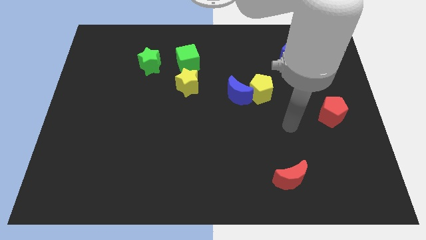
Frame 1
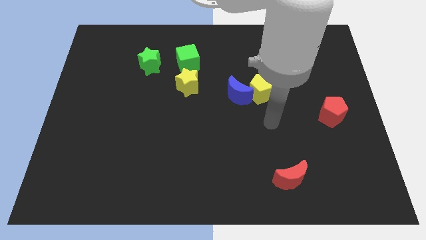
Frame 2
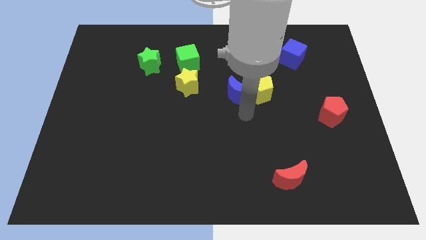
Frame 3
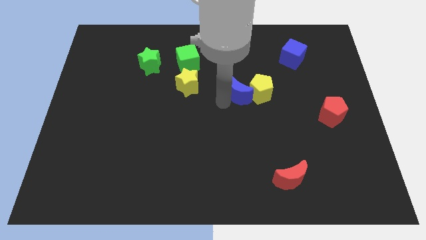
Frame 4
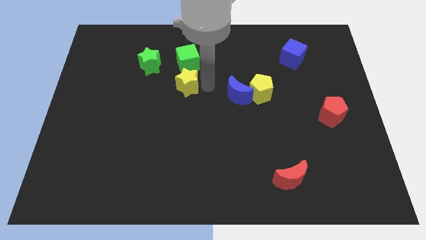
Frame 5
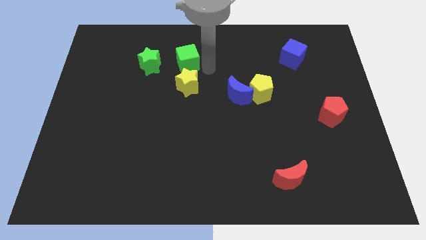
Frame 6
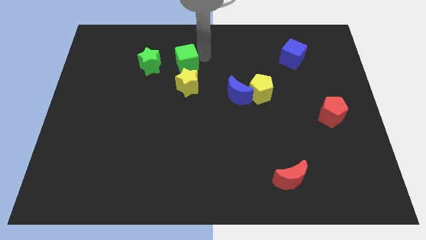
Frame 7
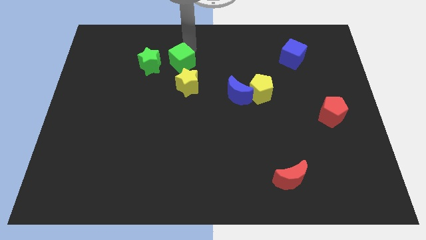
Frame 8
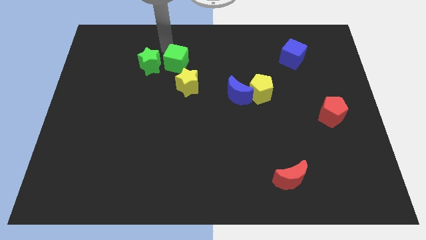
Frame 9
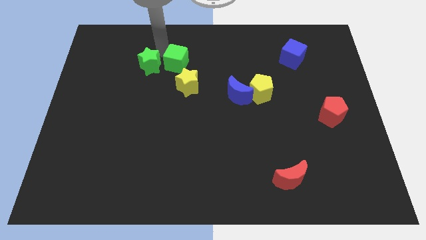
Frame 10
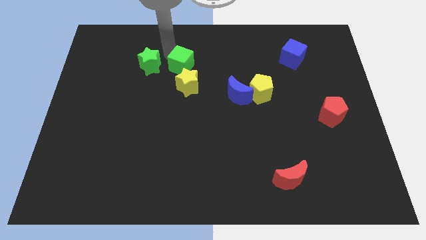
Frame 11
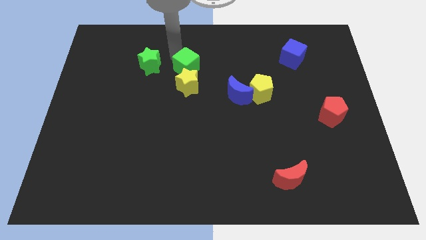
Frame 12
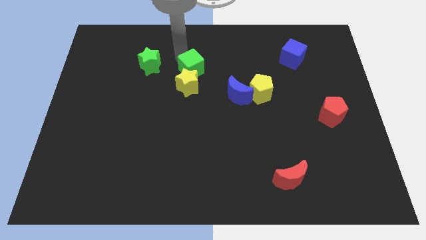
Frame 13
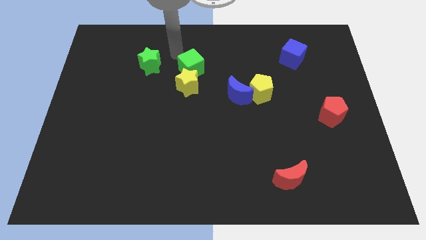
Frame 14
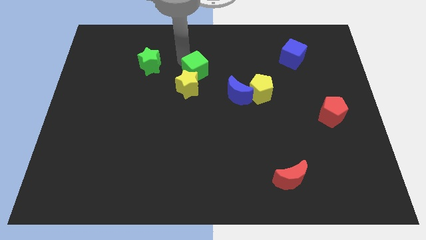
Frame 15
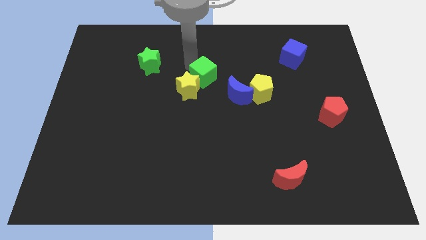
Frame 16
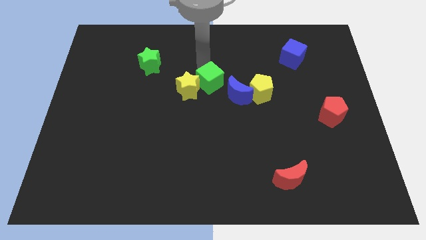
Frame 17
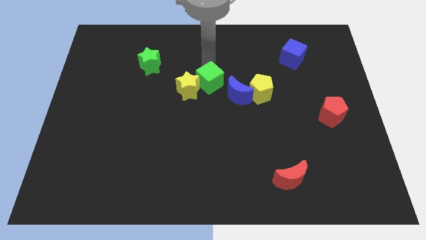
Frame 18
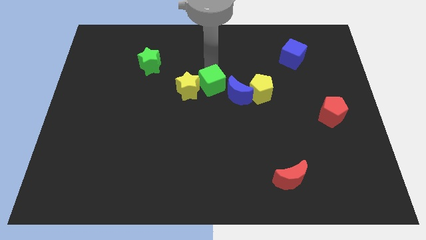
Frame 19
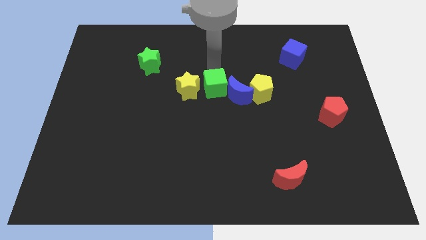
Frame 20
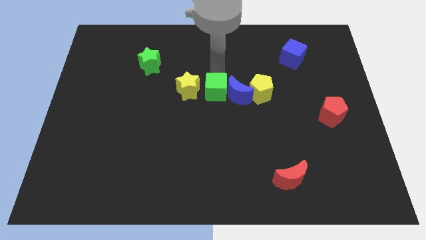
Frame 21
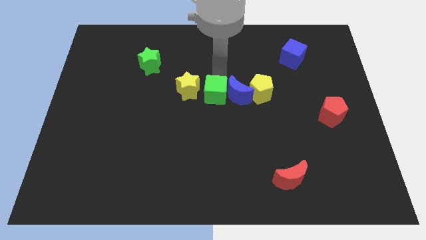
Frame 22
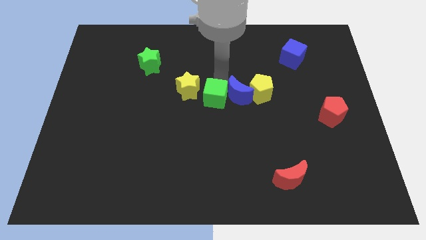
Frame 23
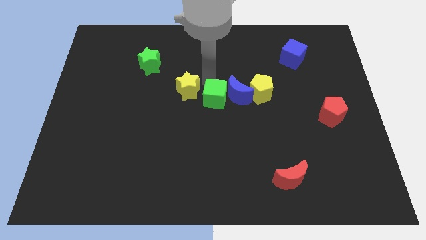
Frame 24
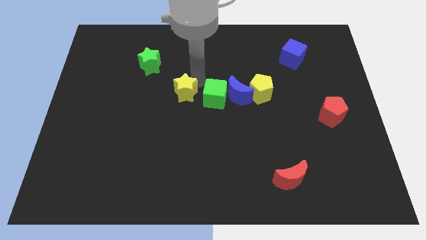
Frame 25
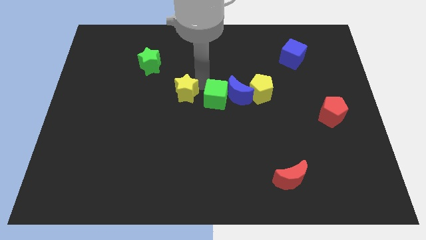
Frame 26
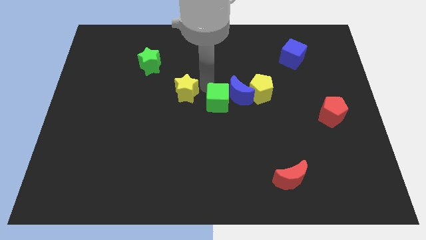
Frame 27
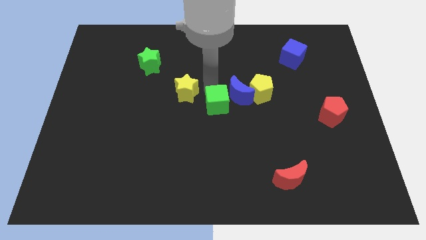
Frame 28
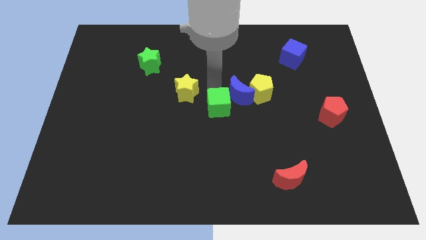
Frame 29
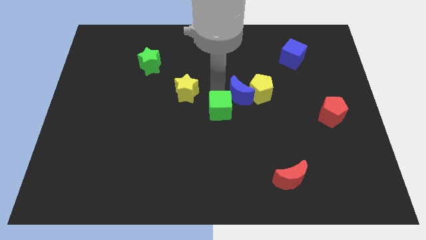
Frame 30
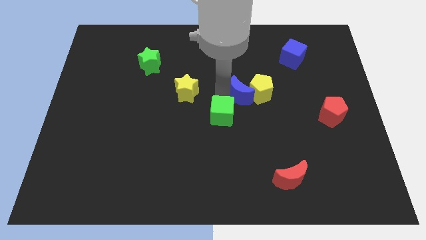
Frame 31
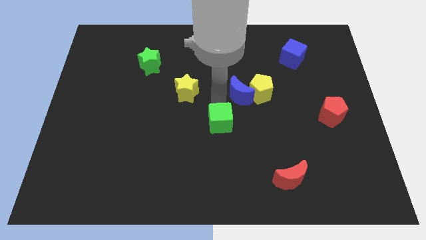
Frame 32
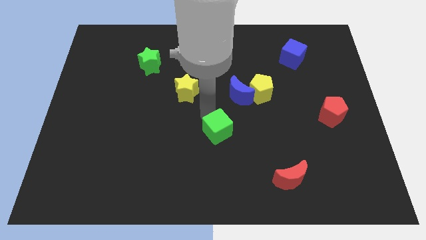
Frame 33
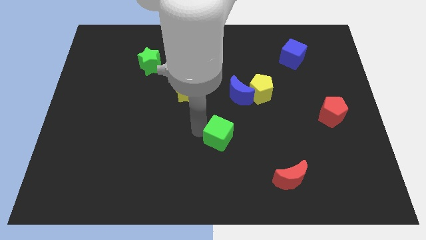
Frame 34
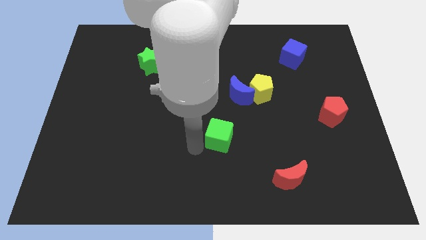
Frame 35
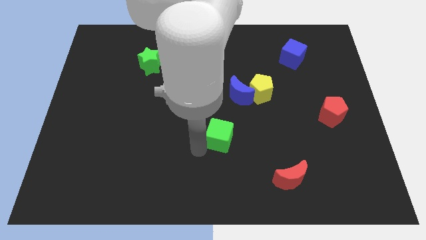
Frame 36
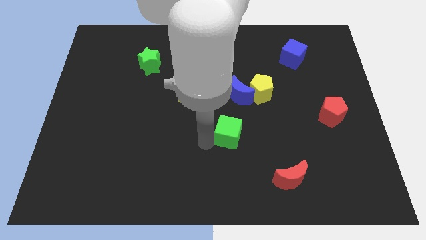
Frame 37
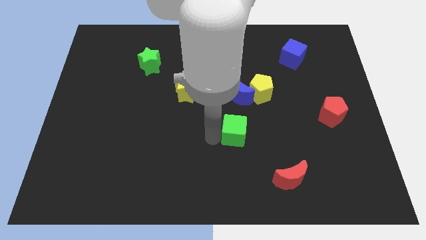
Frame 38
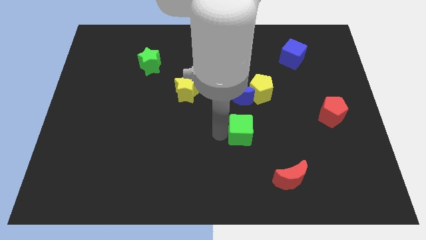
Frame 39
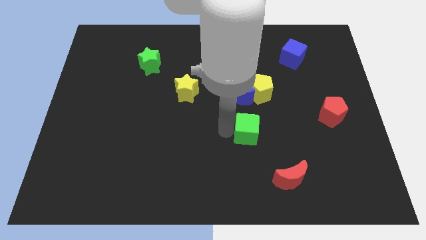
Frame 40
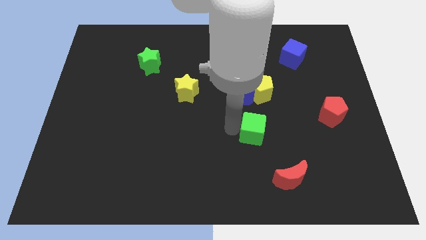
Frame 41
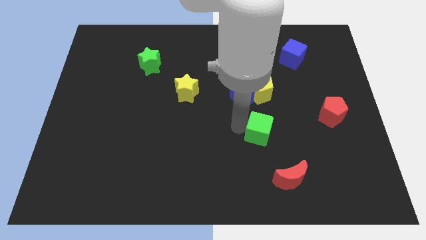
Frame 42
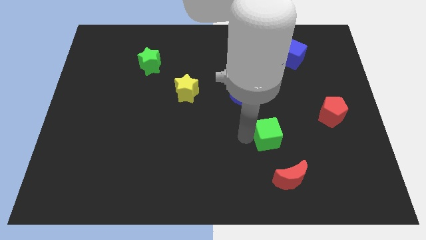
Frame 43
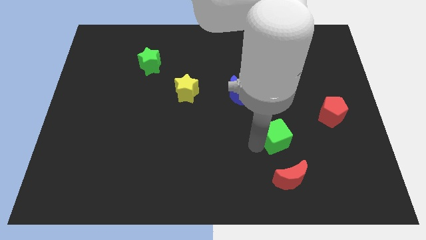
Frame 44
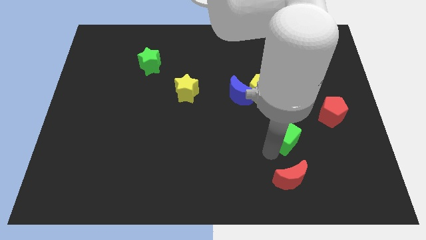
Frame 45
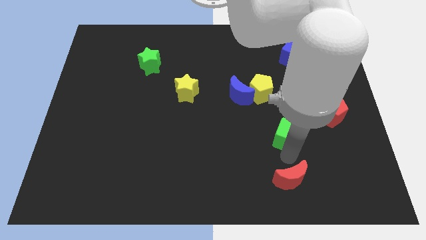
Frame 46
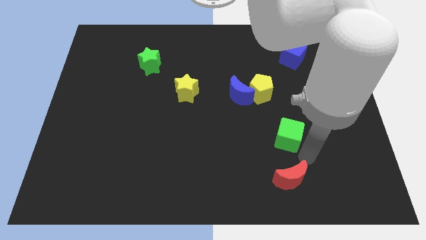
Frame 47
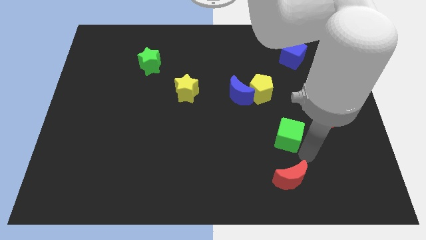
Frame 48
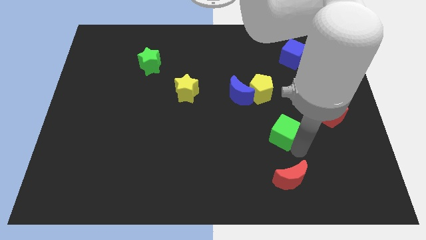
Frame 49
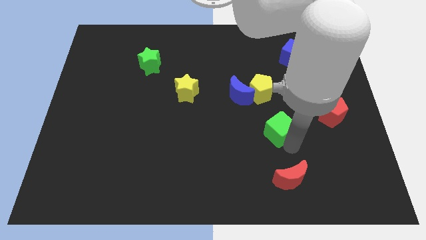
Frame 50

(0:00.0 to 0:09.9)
put the green cube left of the red pentagon

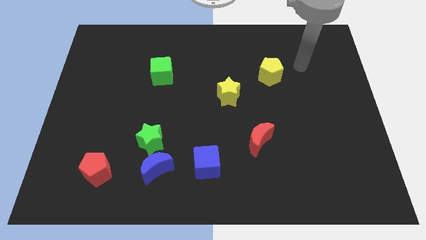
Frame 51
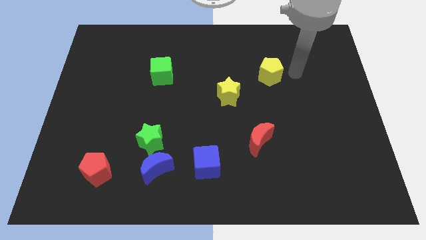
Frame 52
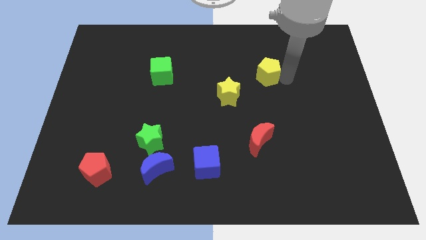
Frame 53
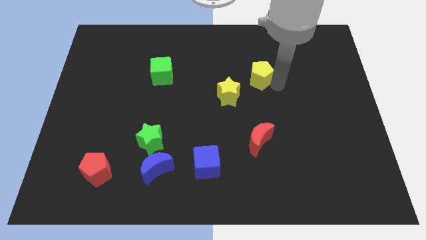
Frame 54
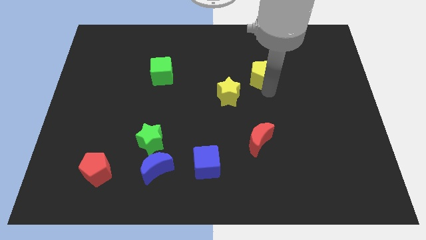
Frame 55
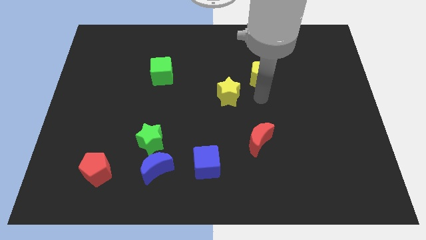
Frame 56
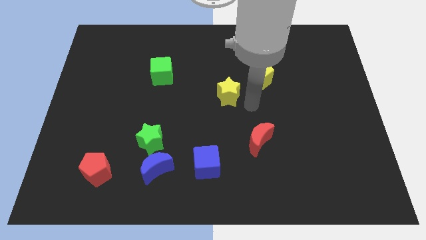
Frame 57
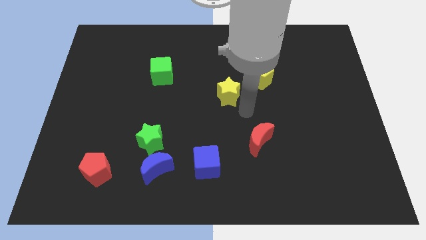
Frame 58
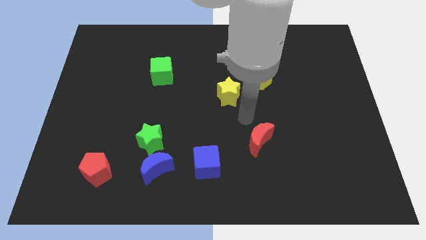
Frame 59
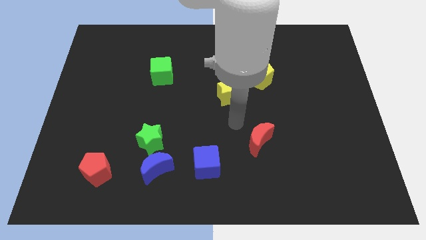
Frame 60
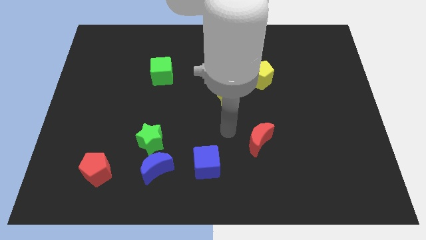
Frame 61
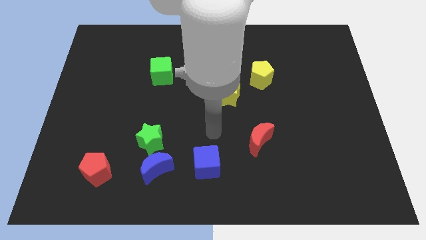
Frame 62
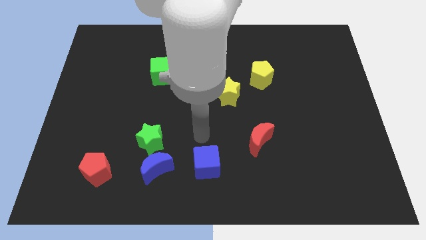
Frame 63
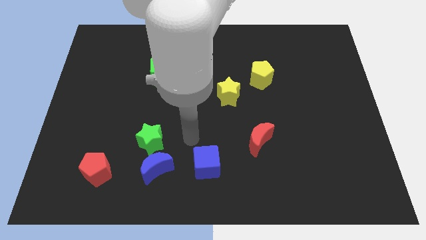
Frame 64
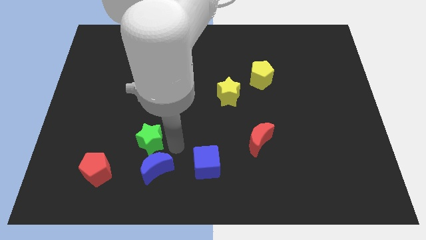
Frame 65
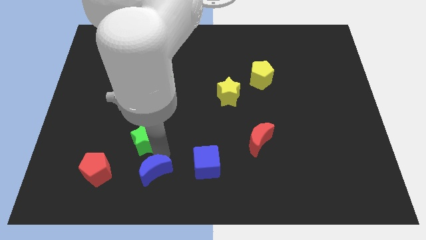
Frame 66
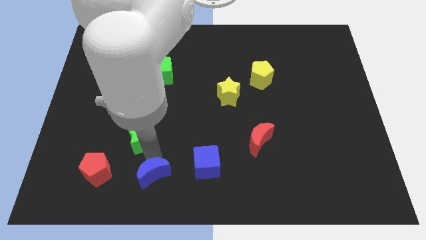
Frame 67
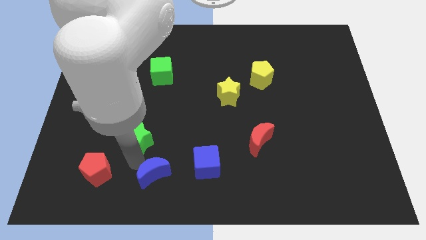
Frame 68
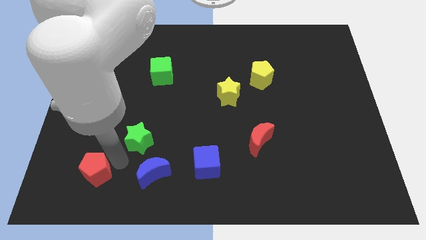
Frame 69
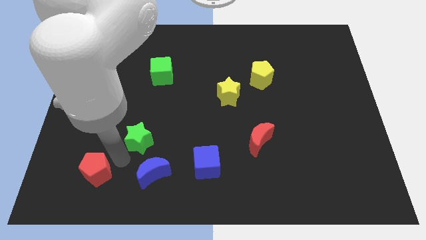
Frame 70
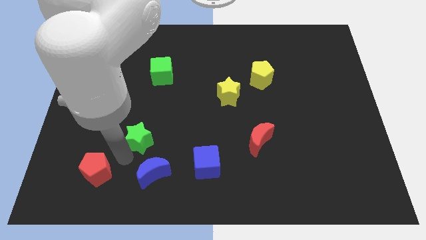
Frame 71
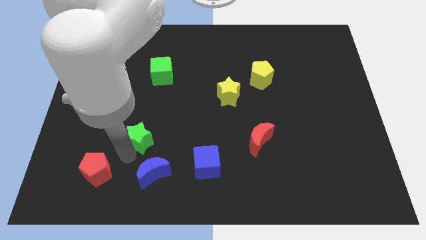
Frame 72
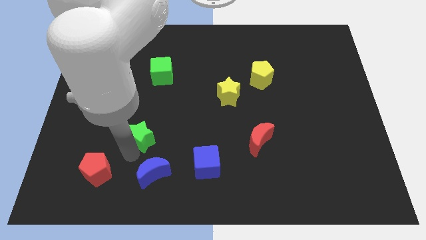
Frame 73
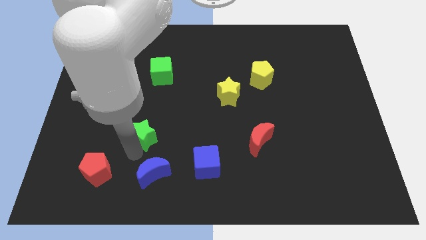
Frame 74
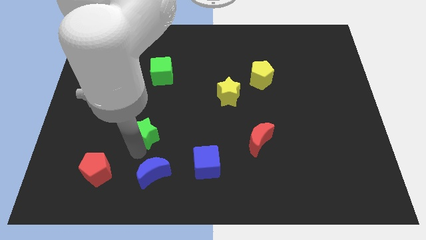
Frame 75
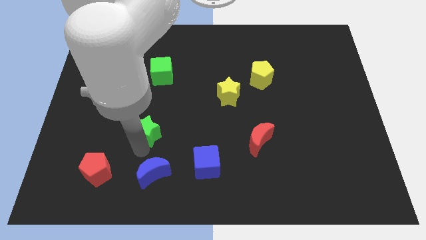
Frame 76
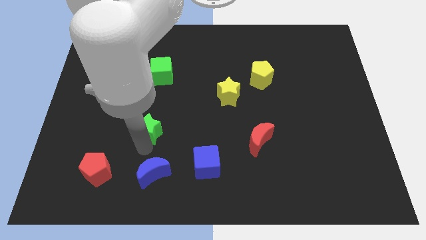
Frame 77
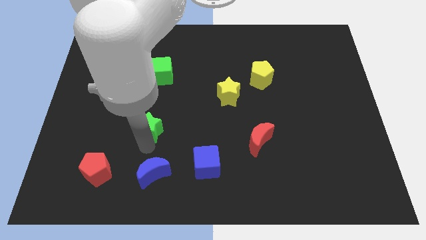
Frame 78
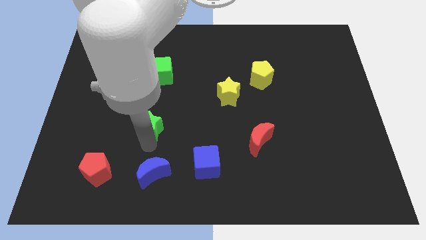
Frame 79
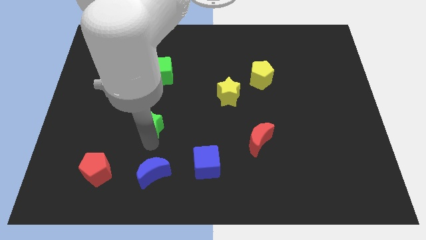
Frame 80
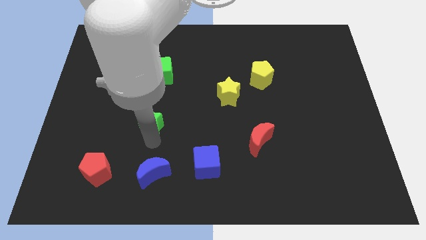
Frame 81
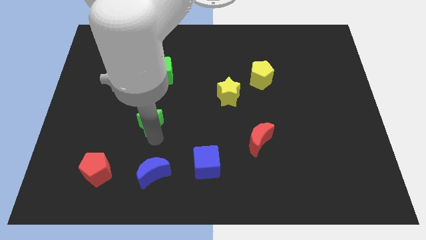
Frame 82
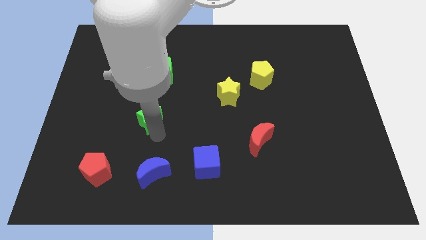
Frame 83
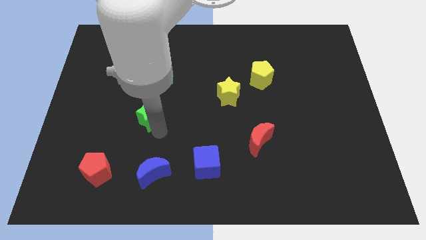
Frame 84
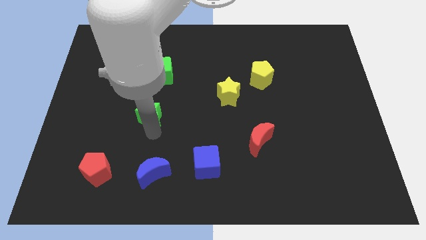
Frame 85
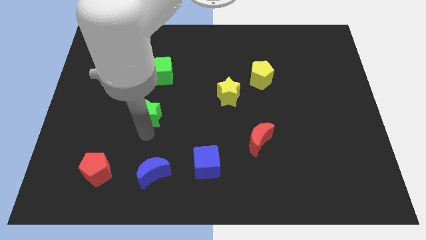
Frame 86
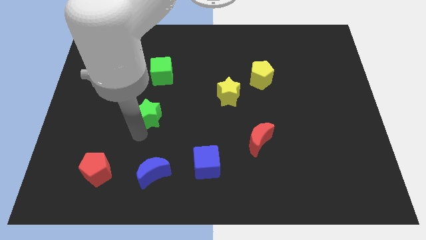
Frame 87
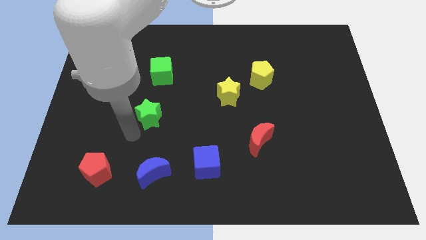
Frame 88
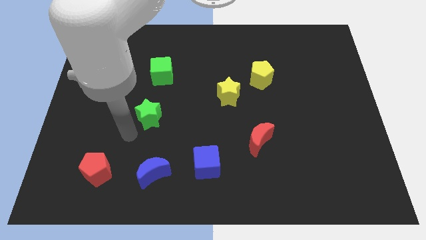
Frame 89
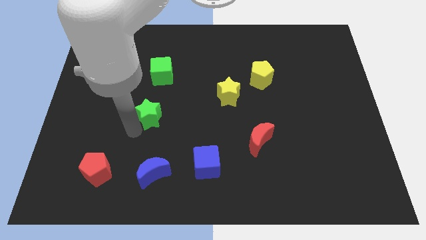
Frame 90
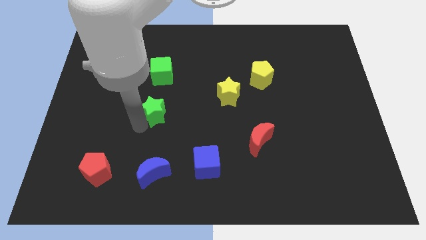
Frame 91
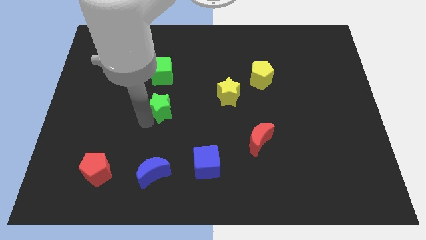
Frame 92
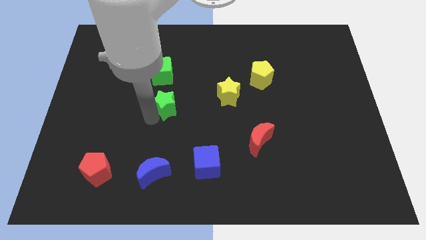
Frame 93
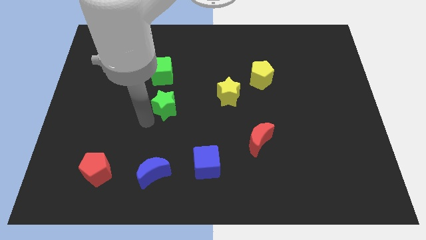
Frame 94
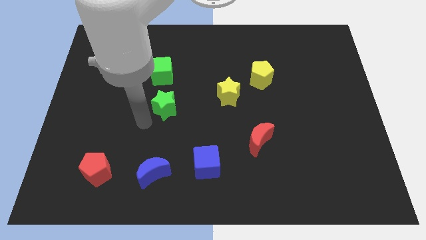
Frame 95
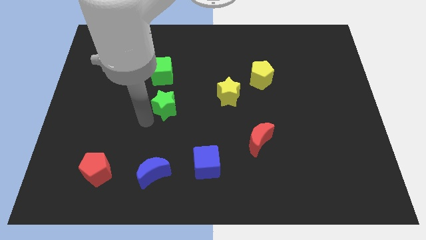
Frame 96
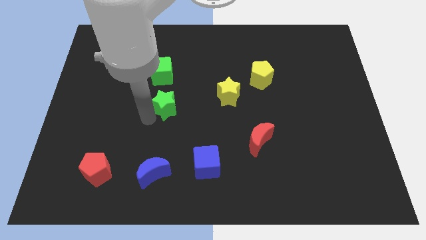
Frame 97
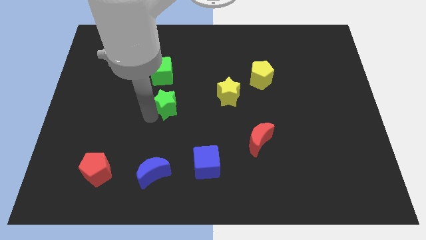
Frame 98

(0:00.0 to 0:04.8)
slide the green star to the left side of the yellow star
